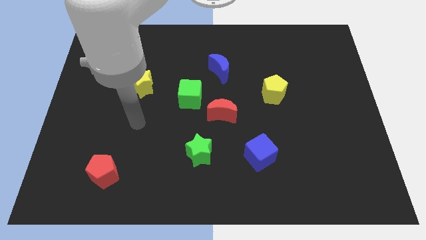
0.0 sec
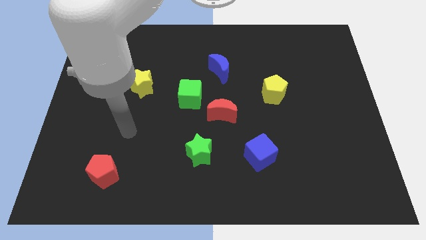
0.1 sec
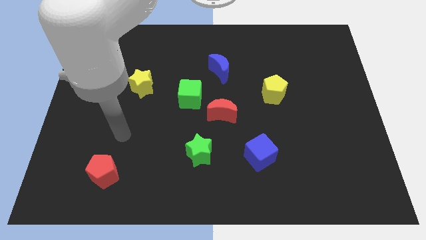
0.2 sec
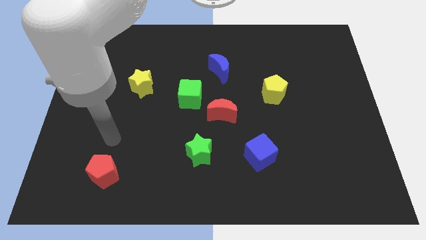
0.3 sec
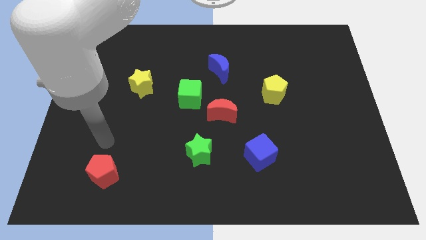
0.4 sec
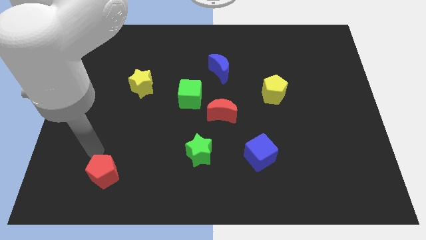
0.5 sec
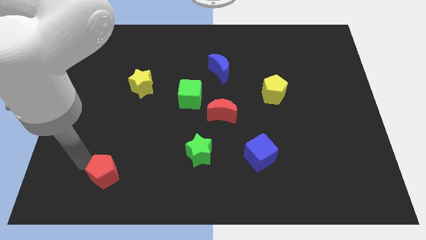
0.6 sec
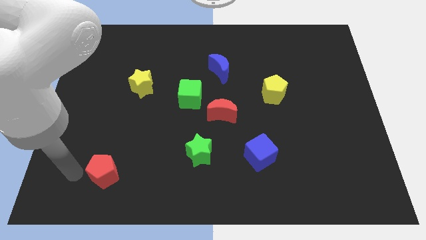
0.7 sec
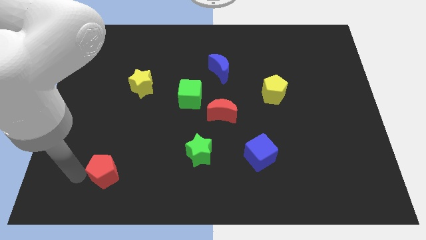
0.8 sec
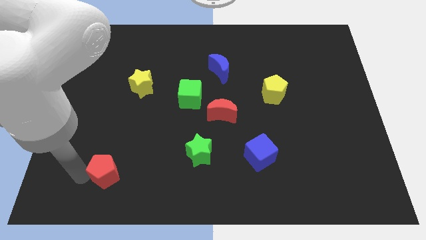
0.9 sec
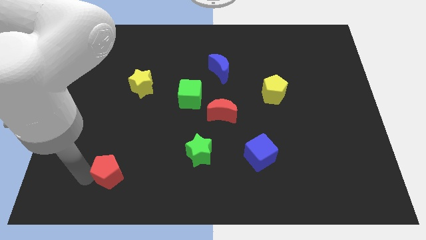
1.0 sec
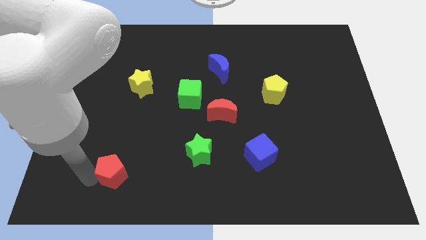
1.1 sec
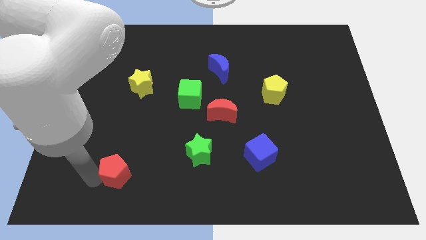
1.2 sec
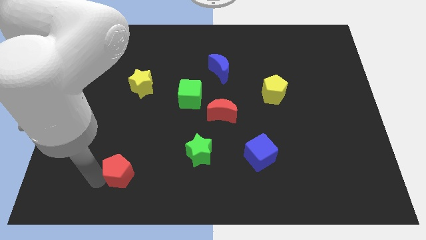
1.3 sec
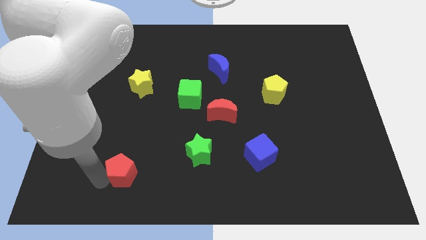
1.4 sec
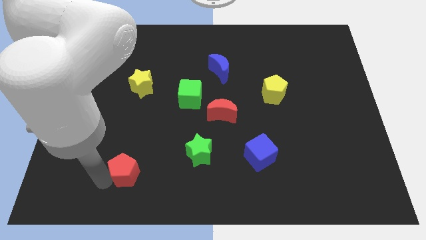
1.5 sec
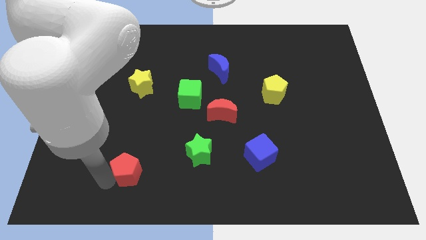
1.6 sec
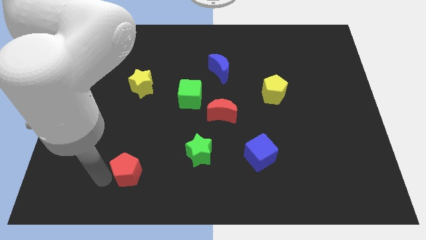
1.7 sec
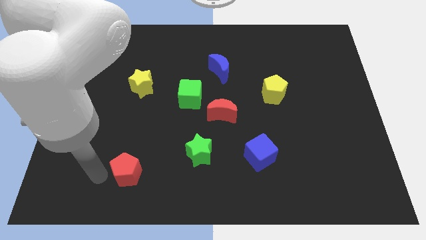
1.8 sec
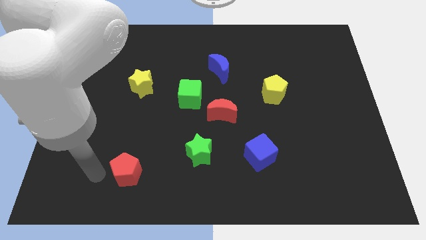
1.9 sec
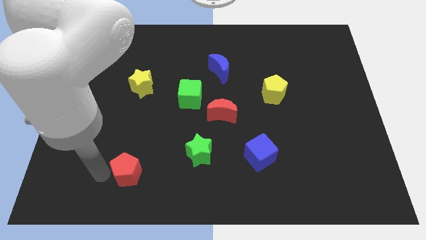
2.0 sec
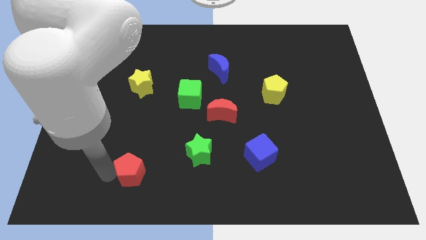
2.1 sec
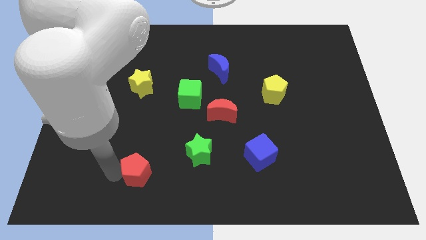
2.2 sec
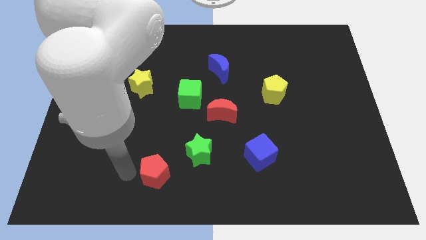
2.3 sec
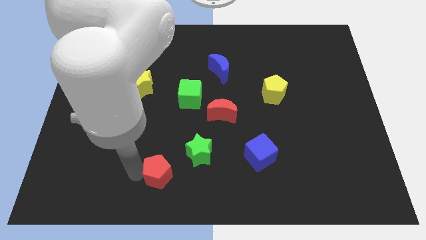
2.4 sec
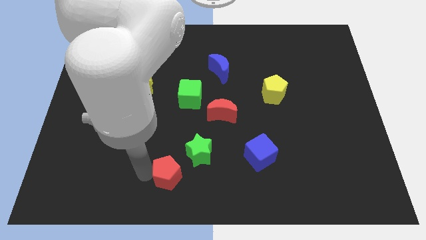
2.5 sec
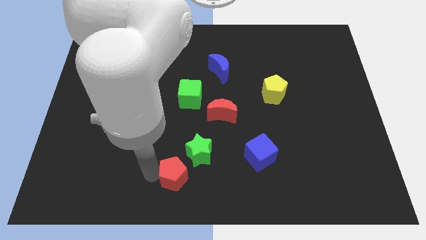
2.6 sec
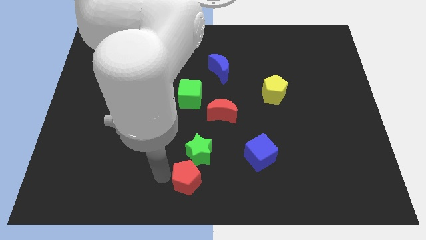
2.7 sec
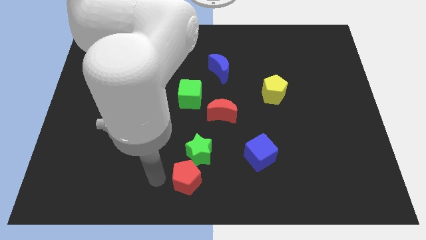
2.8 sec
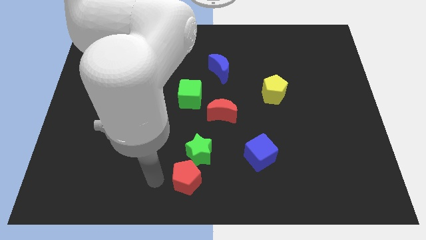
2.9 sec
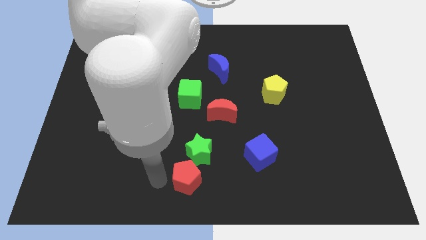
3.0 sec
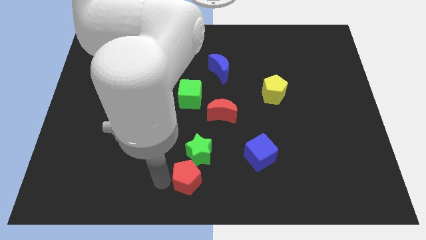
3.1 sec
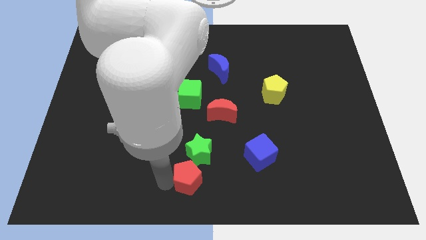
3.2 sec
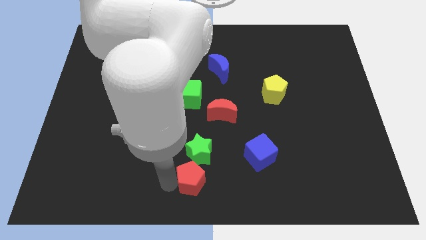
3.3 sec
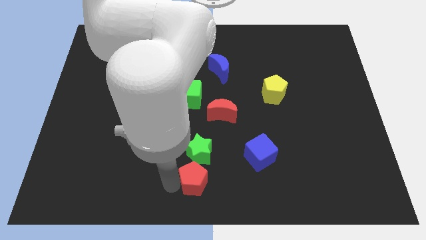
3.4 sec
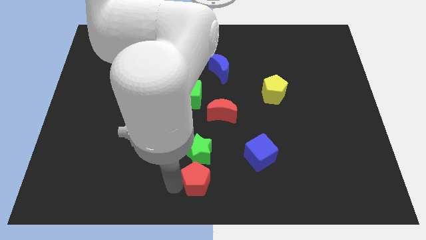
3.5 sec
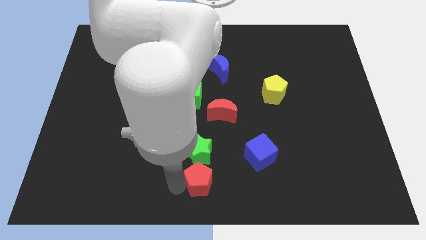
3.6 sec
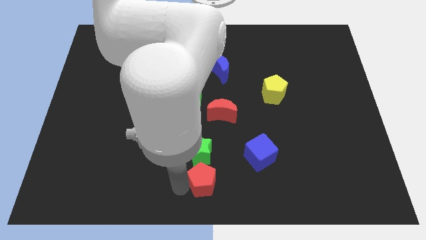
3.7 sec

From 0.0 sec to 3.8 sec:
move the red pentagon to the right

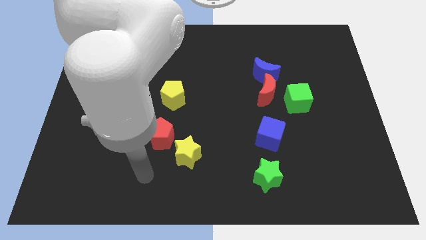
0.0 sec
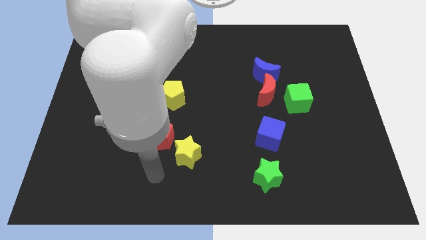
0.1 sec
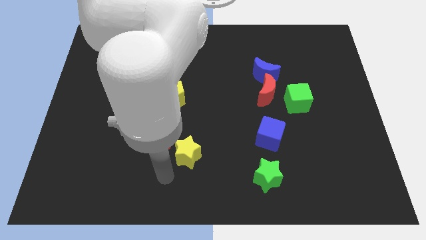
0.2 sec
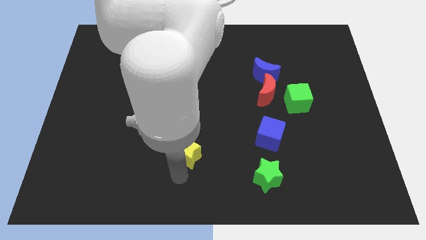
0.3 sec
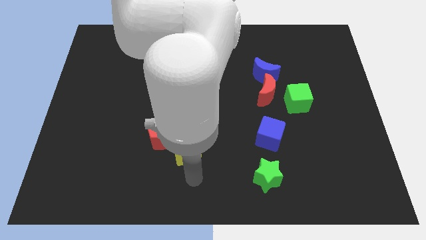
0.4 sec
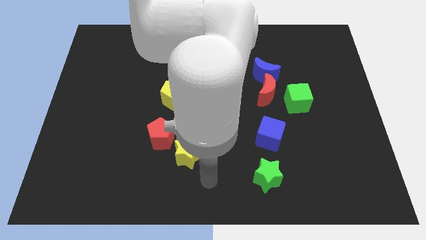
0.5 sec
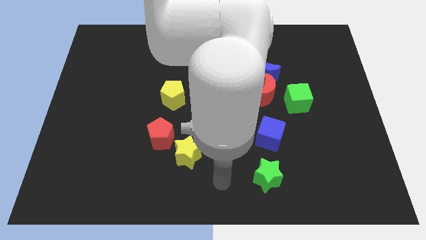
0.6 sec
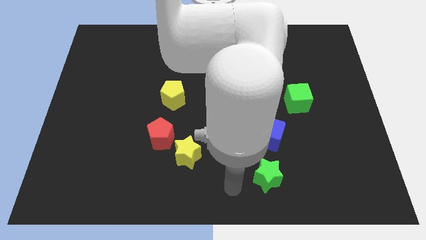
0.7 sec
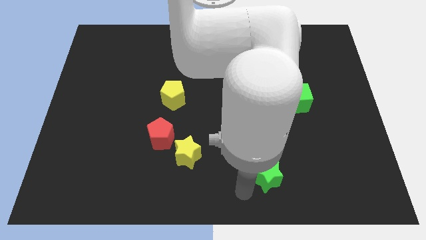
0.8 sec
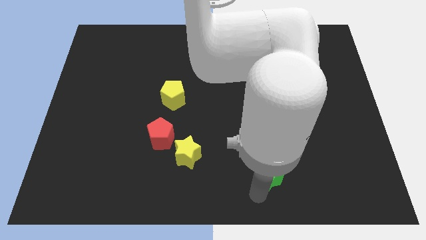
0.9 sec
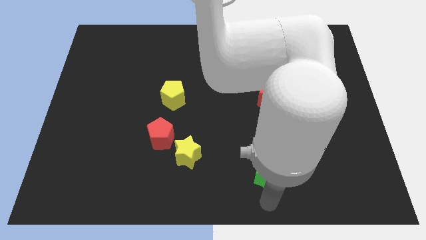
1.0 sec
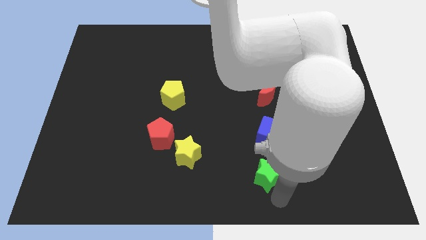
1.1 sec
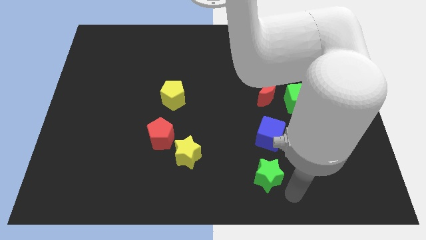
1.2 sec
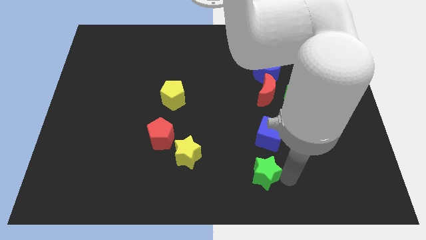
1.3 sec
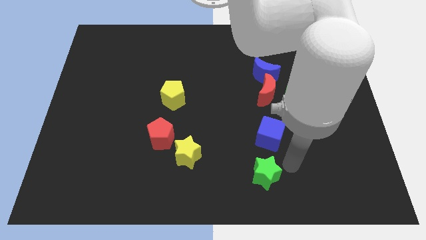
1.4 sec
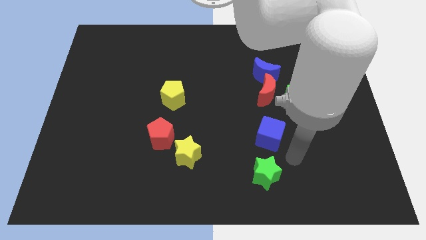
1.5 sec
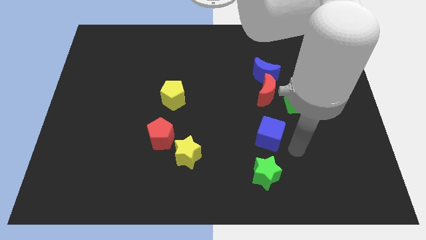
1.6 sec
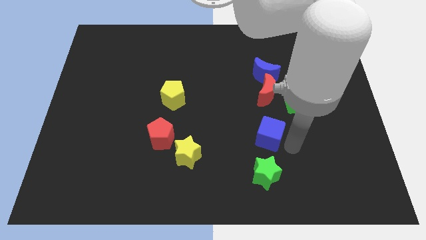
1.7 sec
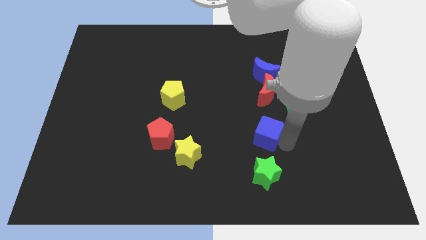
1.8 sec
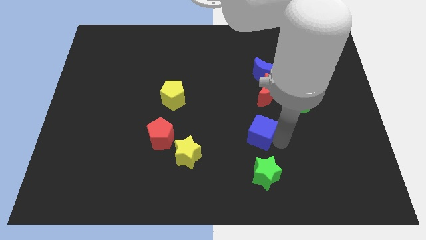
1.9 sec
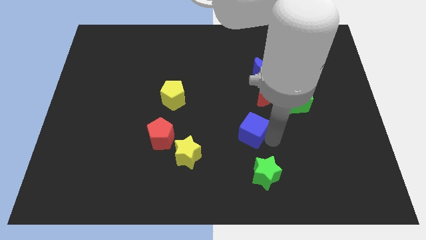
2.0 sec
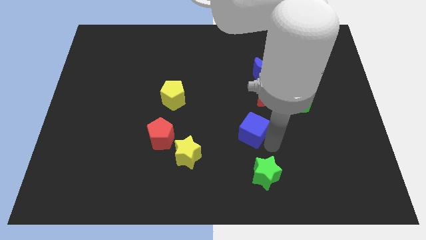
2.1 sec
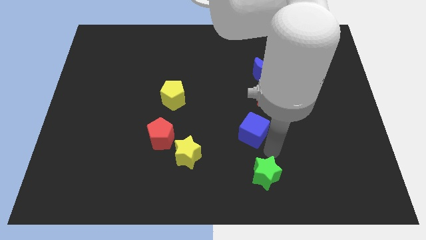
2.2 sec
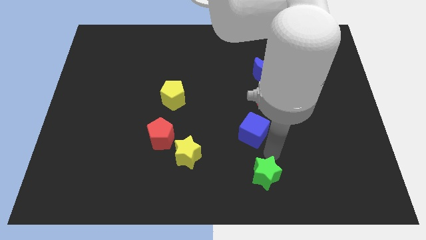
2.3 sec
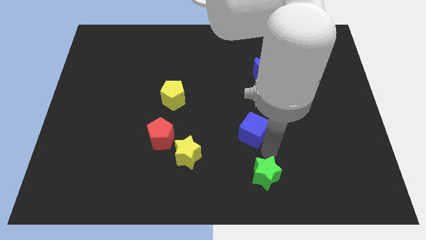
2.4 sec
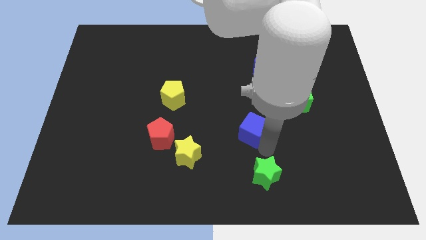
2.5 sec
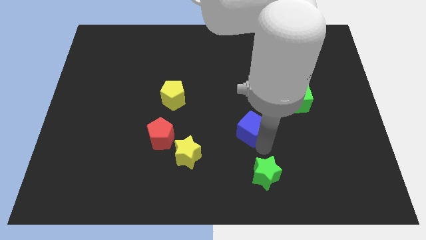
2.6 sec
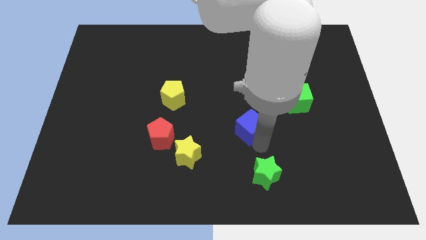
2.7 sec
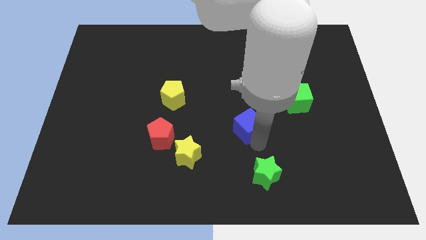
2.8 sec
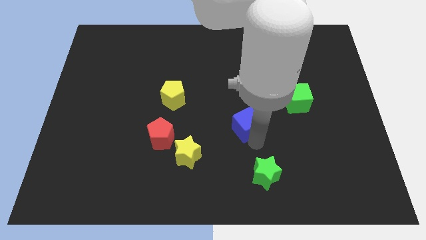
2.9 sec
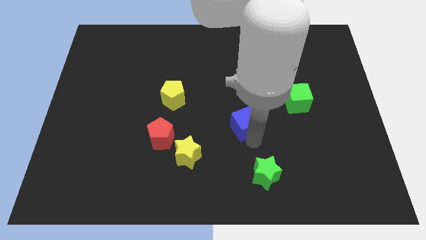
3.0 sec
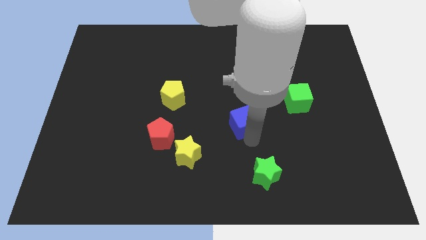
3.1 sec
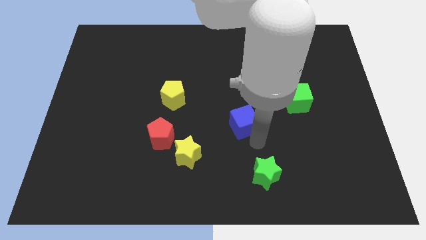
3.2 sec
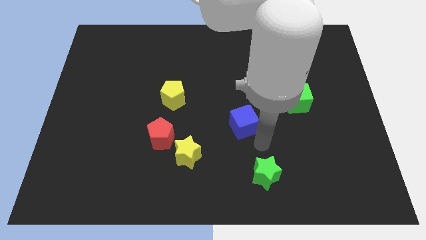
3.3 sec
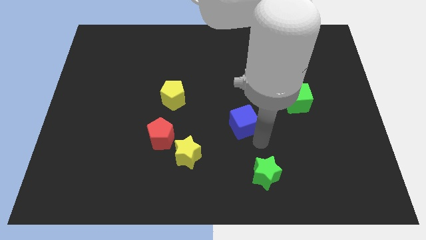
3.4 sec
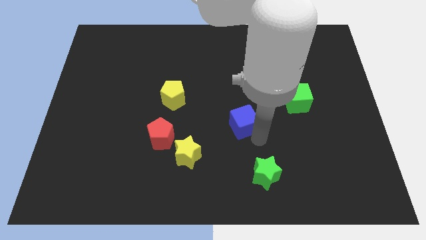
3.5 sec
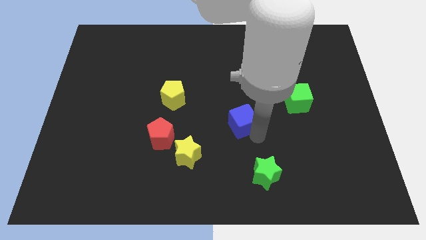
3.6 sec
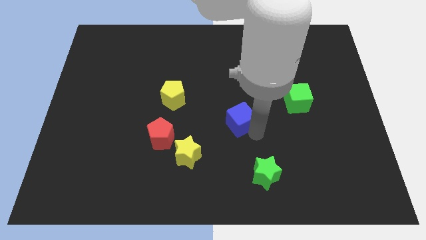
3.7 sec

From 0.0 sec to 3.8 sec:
move the blue cube slightly upwards and to the left diagonally

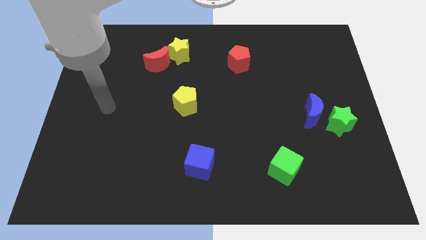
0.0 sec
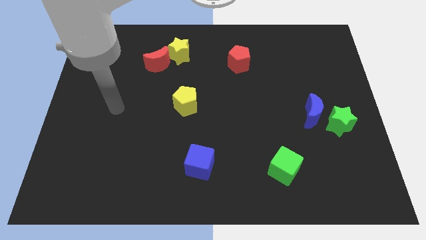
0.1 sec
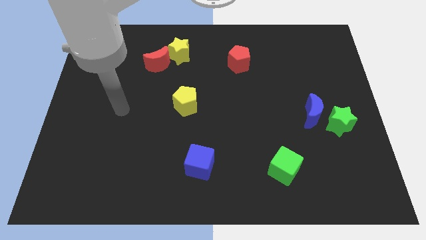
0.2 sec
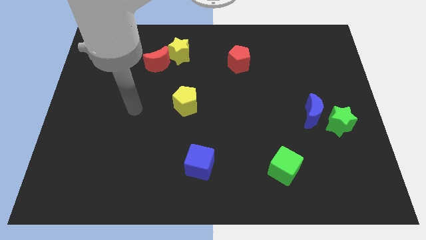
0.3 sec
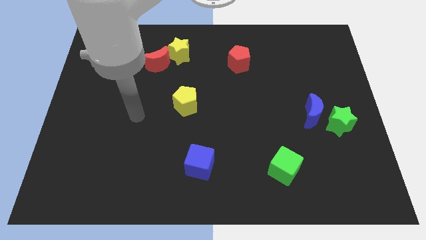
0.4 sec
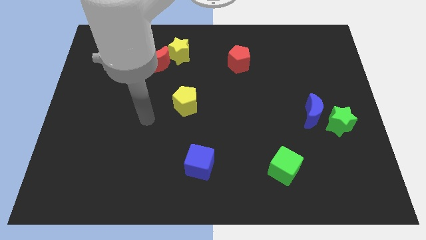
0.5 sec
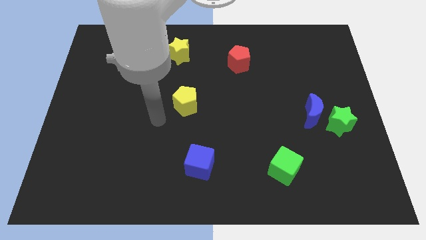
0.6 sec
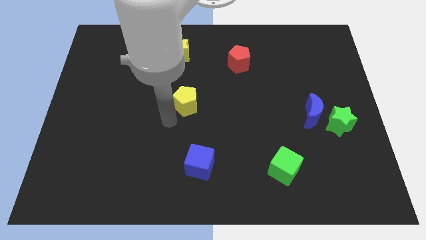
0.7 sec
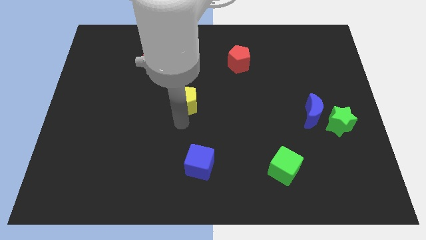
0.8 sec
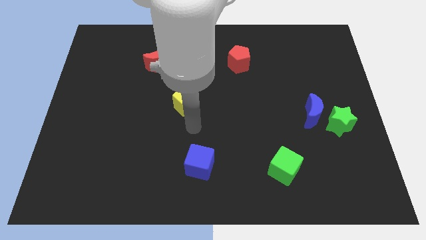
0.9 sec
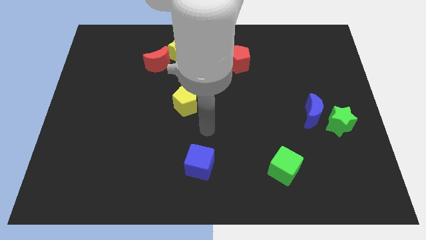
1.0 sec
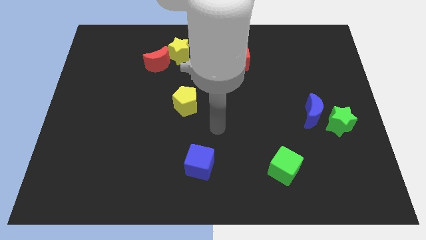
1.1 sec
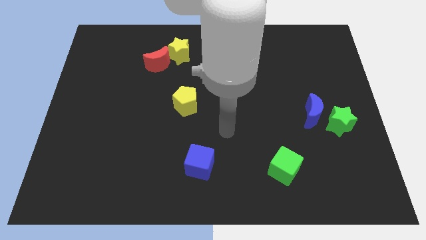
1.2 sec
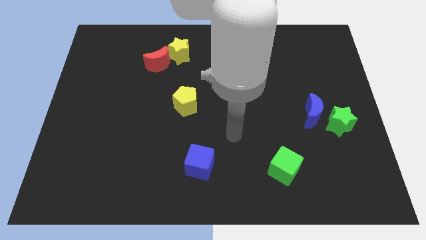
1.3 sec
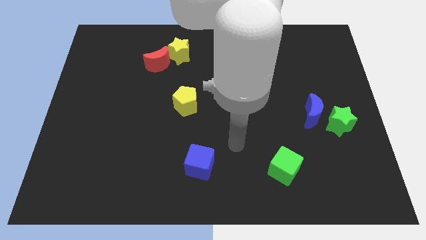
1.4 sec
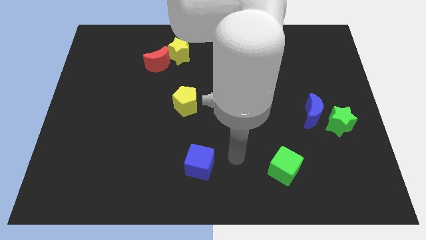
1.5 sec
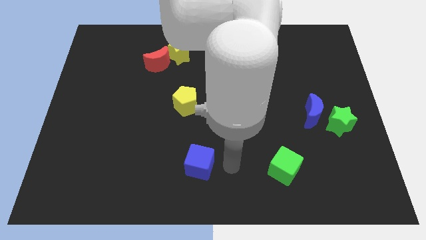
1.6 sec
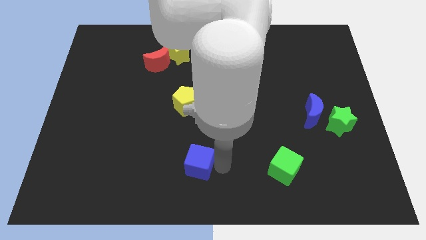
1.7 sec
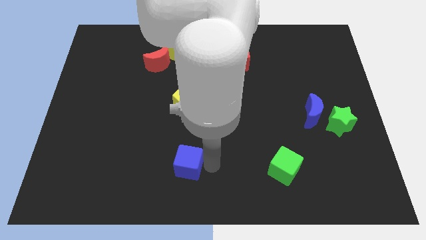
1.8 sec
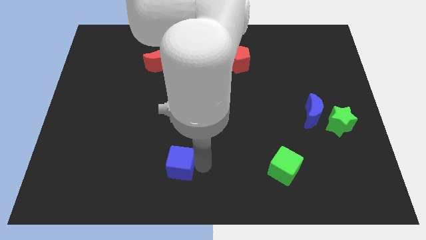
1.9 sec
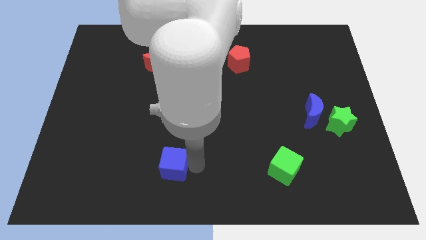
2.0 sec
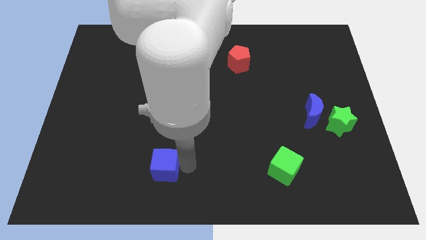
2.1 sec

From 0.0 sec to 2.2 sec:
push the blue cube a bit to the left
